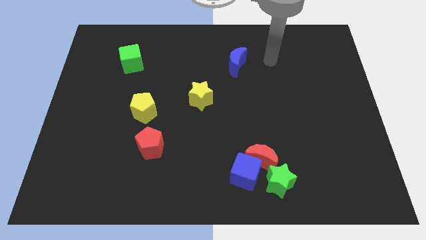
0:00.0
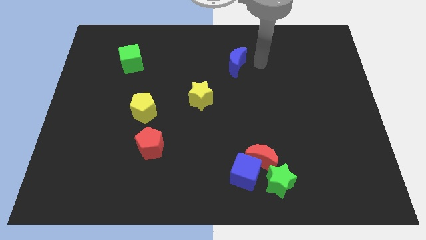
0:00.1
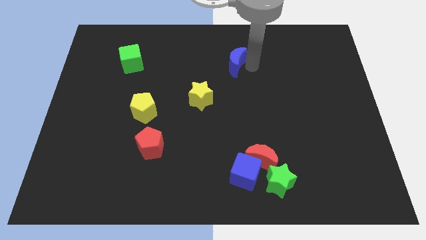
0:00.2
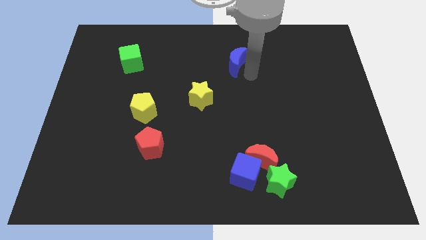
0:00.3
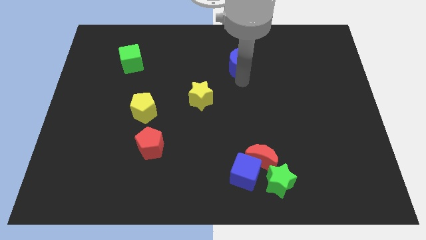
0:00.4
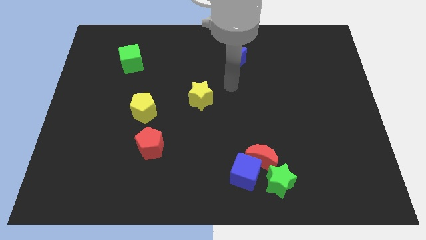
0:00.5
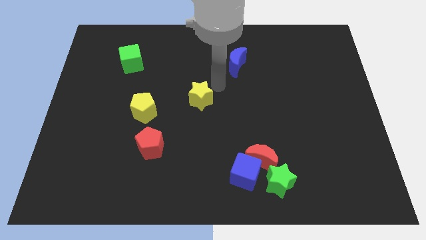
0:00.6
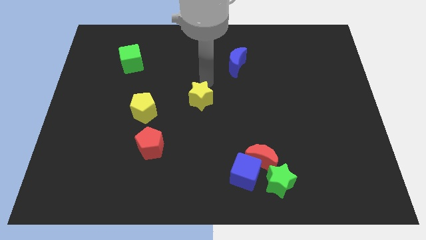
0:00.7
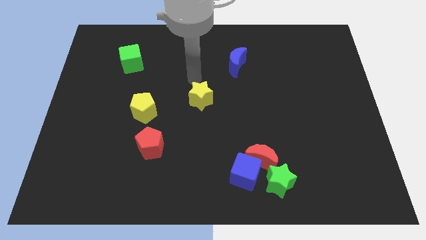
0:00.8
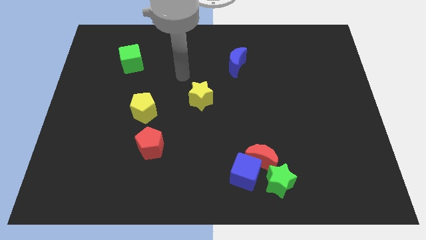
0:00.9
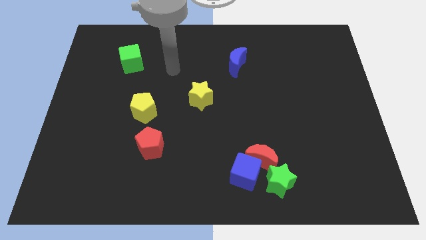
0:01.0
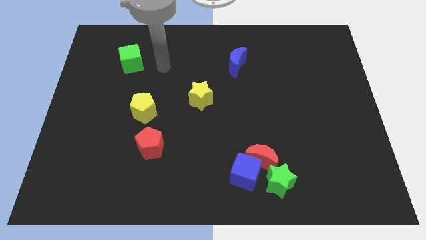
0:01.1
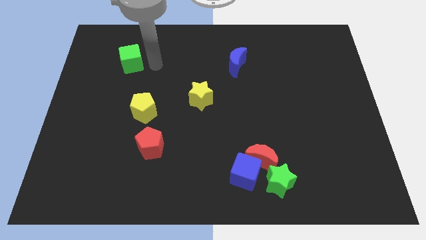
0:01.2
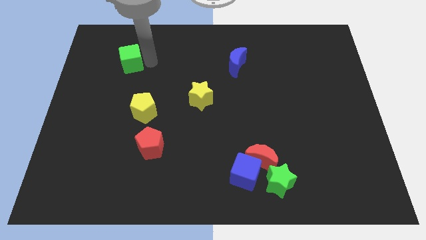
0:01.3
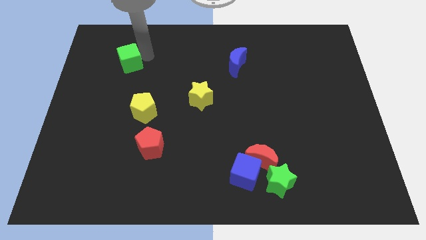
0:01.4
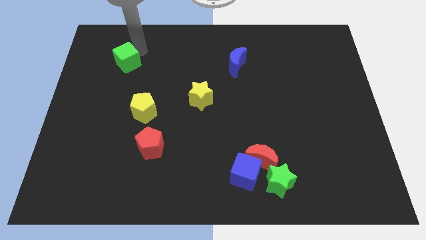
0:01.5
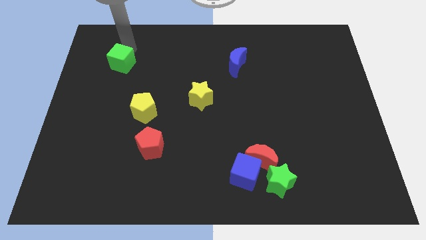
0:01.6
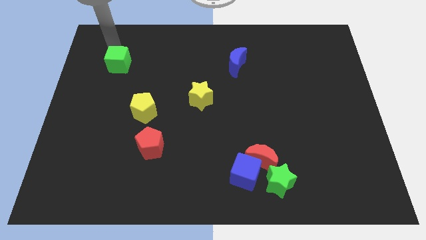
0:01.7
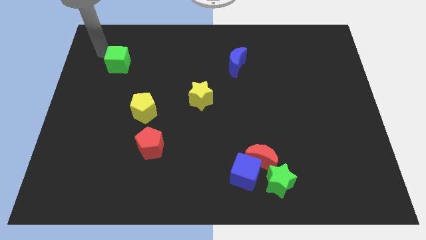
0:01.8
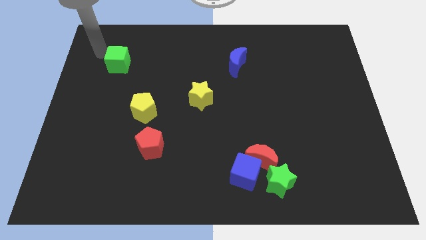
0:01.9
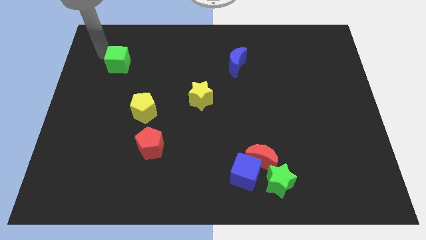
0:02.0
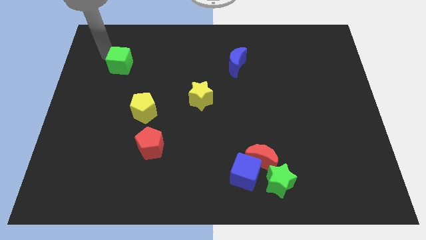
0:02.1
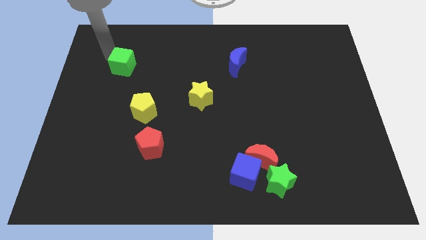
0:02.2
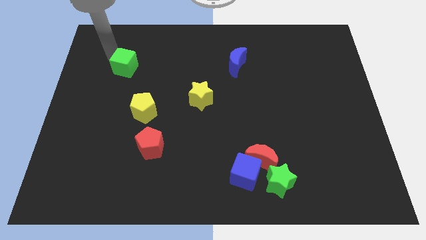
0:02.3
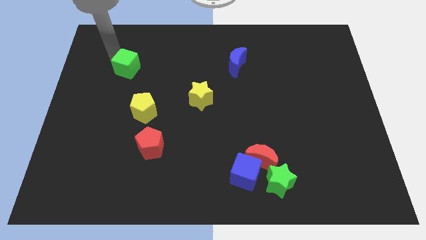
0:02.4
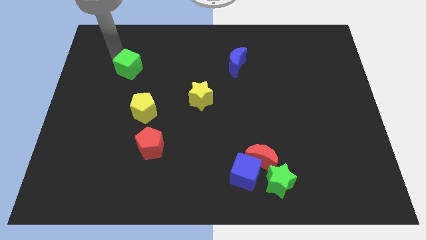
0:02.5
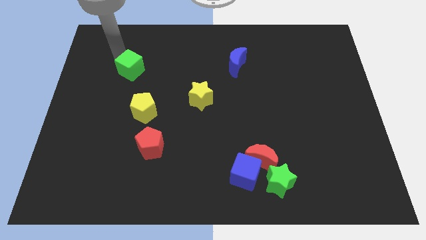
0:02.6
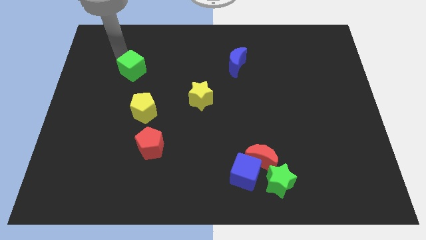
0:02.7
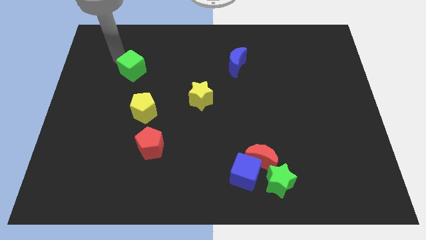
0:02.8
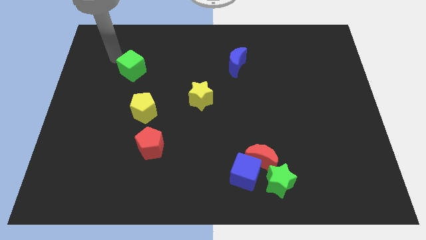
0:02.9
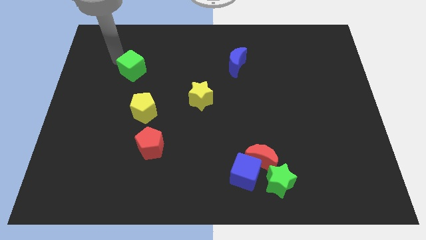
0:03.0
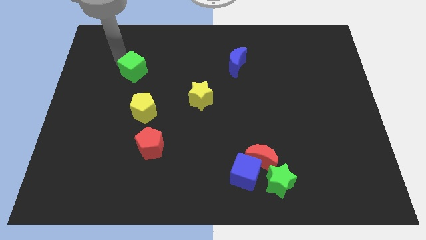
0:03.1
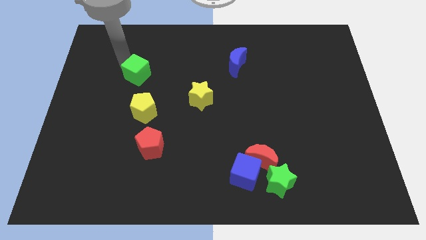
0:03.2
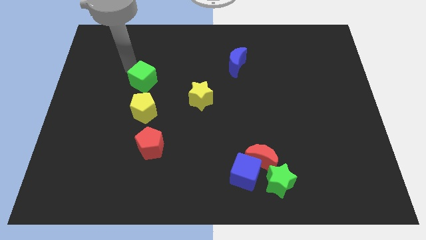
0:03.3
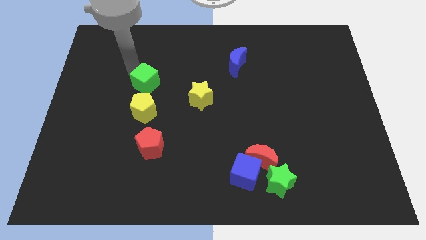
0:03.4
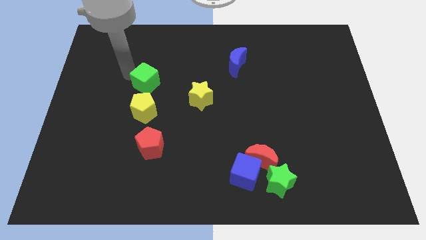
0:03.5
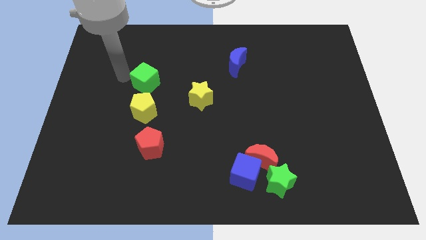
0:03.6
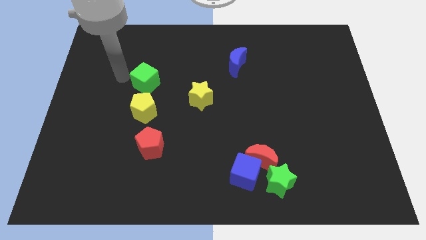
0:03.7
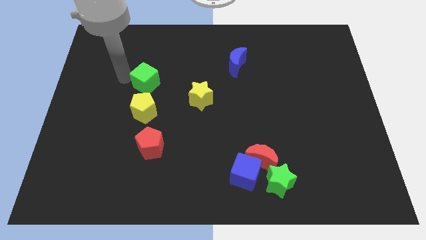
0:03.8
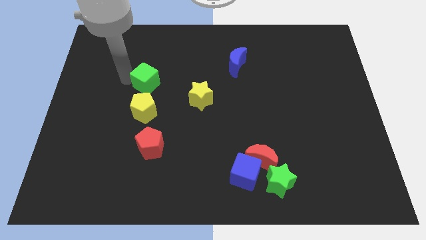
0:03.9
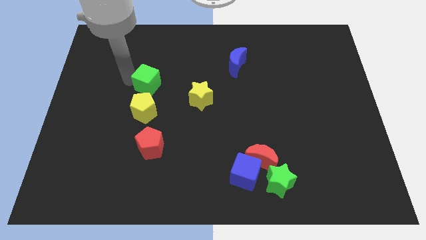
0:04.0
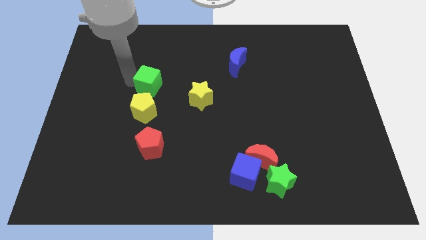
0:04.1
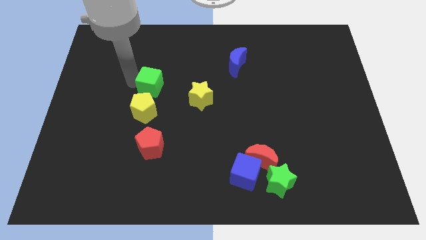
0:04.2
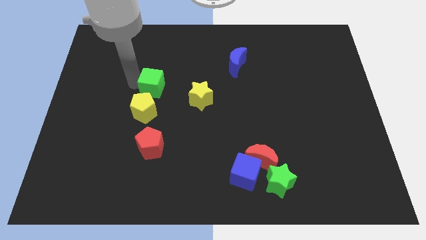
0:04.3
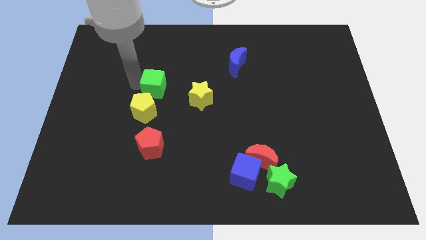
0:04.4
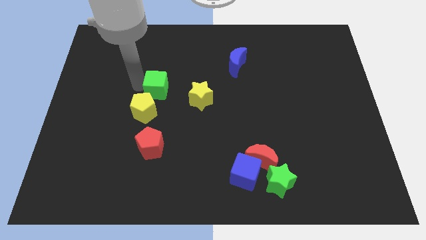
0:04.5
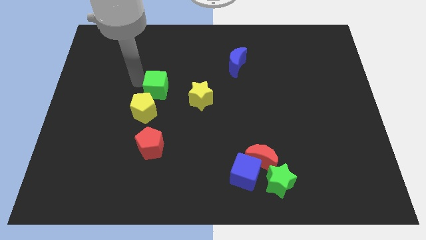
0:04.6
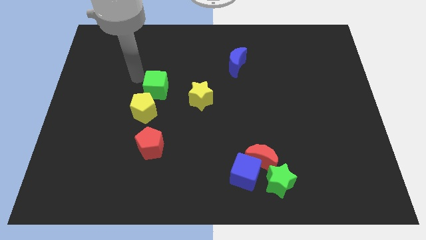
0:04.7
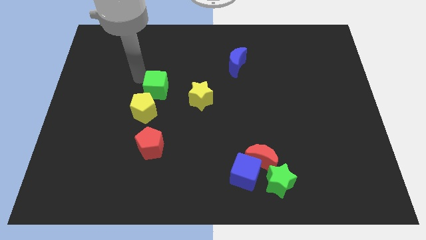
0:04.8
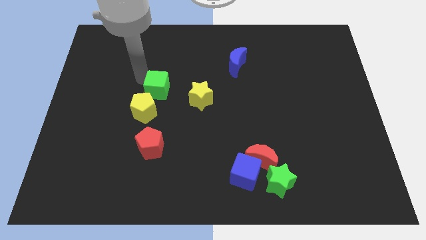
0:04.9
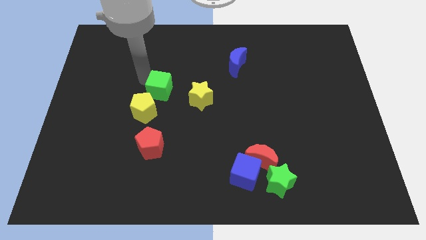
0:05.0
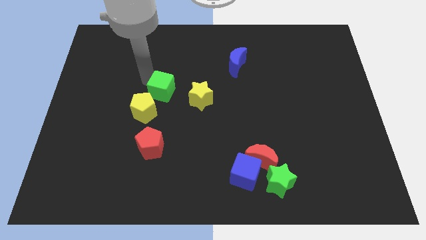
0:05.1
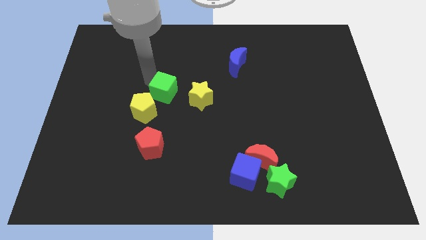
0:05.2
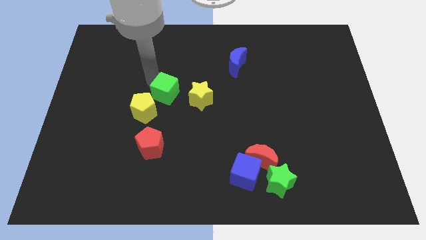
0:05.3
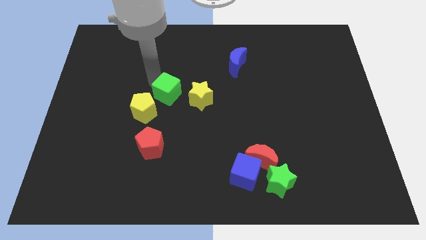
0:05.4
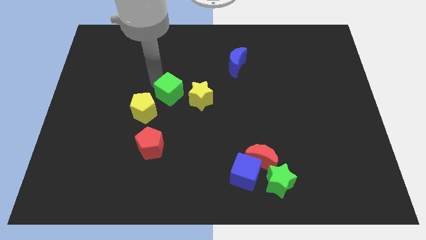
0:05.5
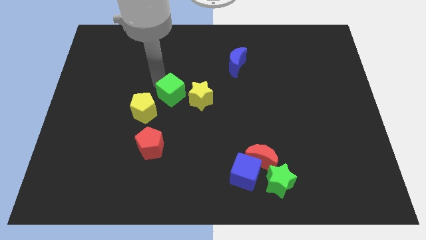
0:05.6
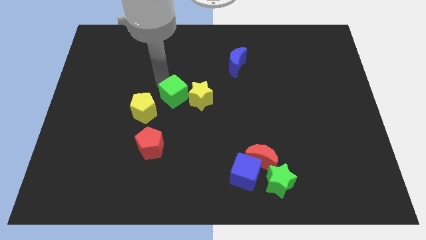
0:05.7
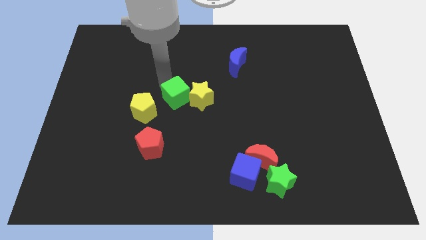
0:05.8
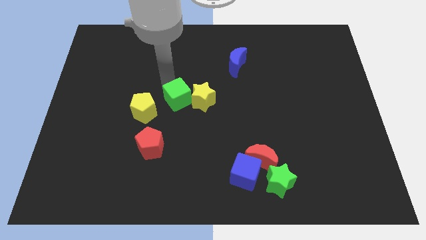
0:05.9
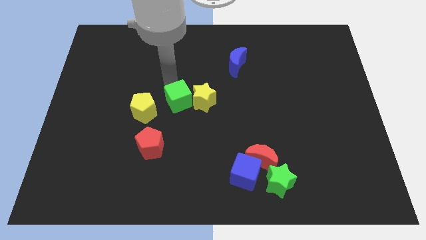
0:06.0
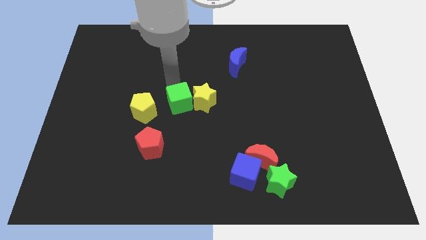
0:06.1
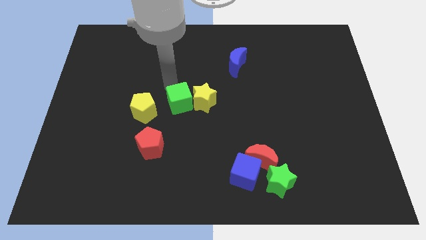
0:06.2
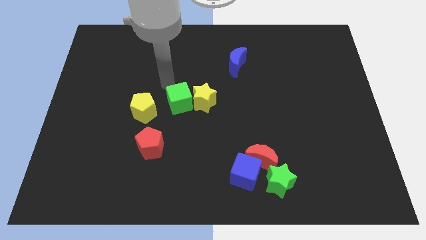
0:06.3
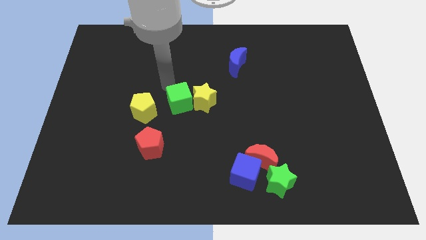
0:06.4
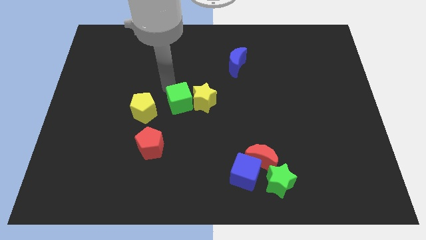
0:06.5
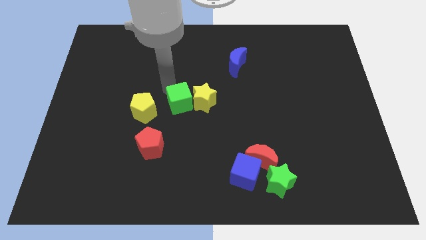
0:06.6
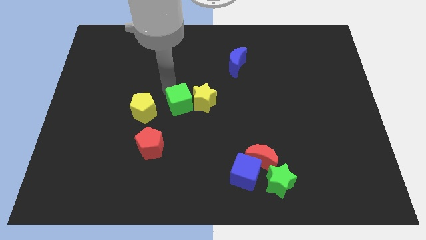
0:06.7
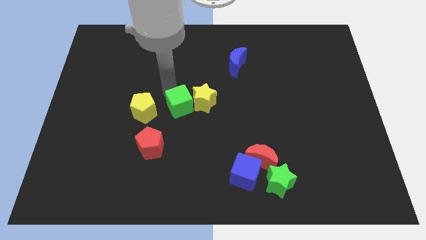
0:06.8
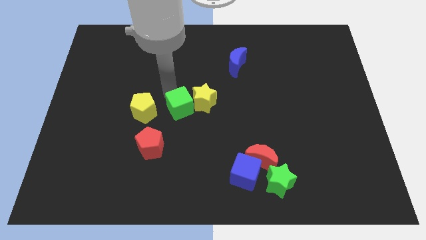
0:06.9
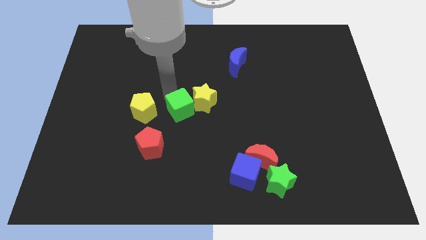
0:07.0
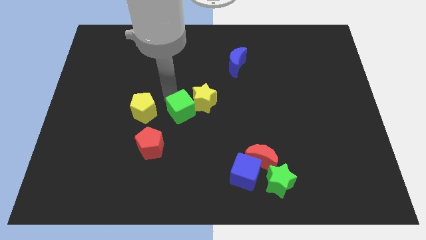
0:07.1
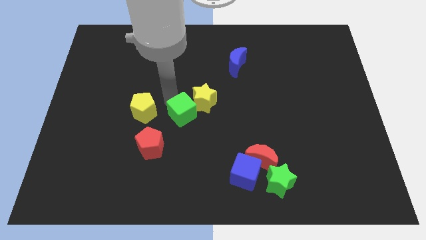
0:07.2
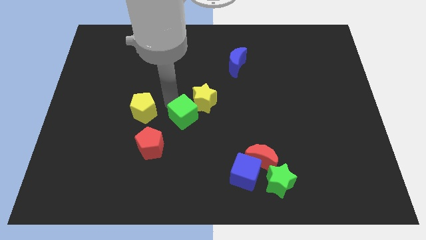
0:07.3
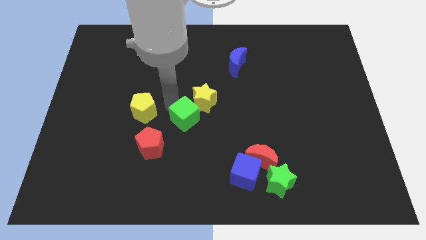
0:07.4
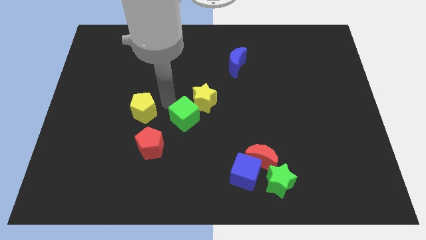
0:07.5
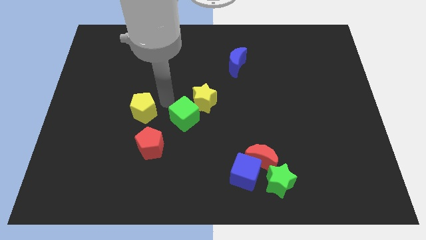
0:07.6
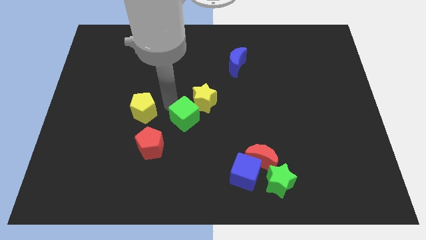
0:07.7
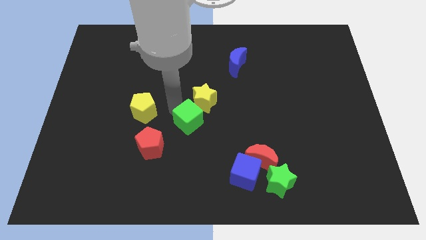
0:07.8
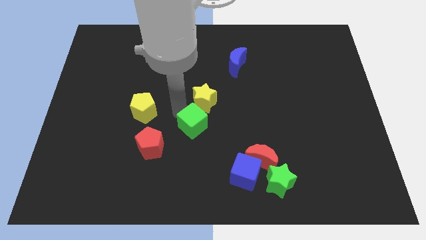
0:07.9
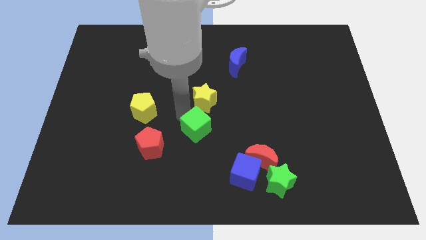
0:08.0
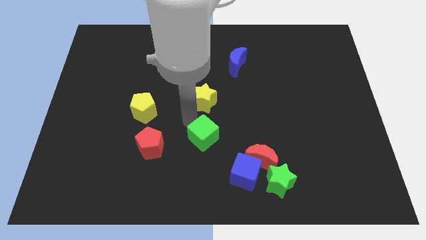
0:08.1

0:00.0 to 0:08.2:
push the green cube diagonally up and to the left of the blue cube
